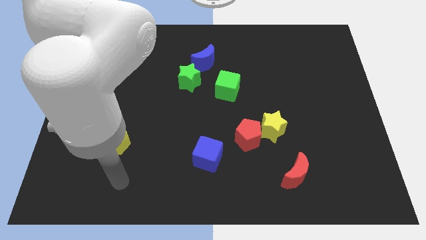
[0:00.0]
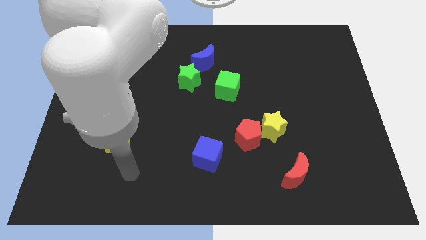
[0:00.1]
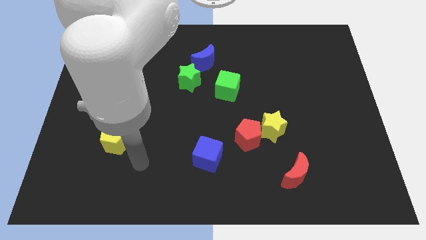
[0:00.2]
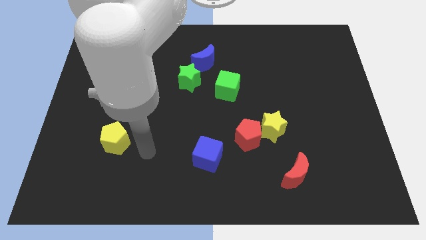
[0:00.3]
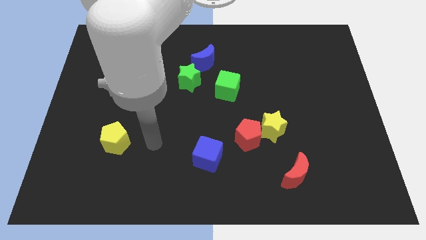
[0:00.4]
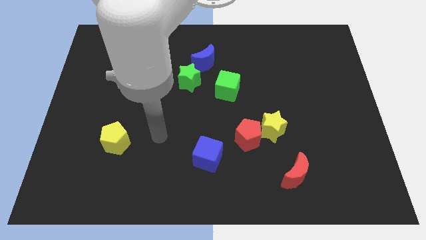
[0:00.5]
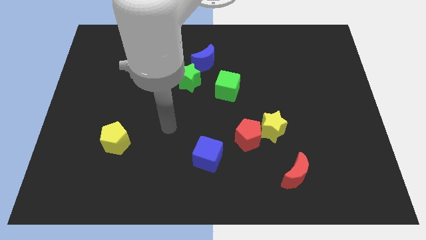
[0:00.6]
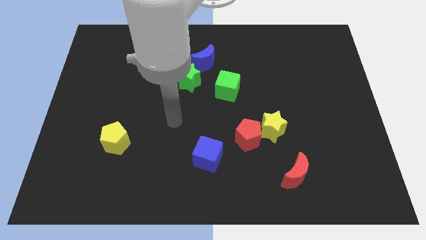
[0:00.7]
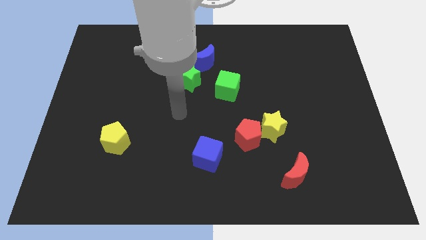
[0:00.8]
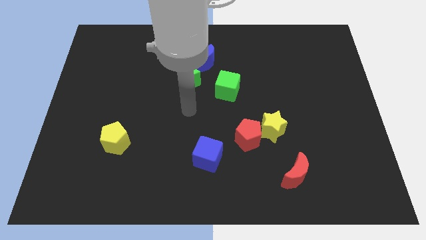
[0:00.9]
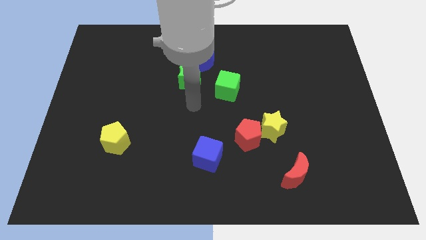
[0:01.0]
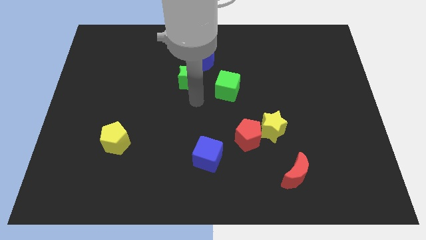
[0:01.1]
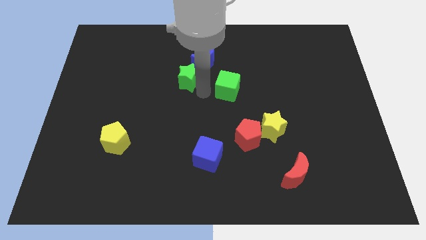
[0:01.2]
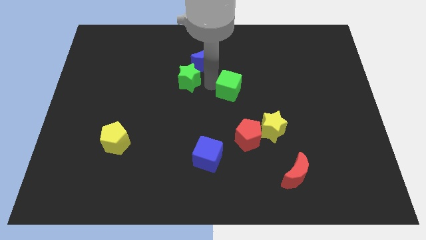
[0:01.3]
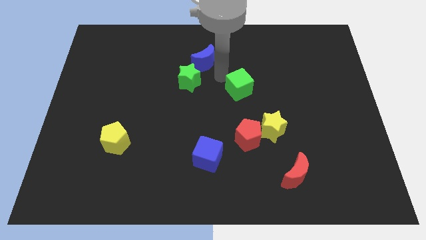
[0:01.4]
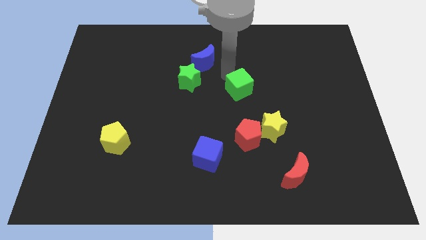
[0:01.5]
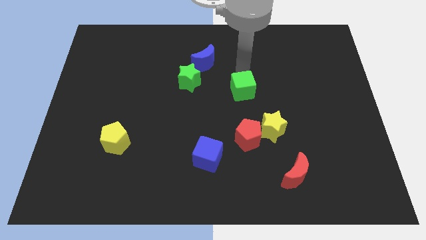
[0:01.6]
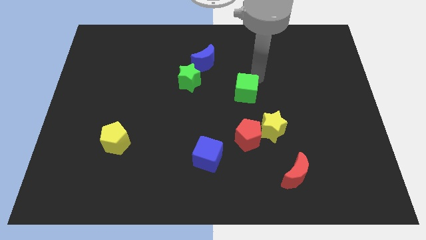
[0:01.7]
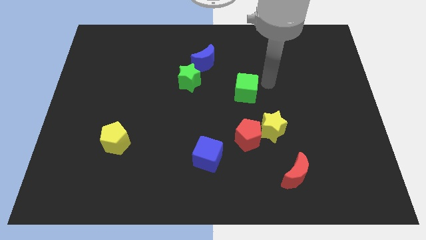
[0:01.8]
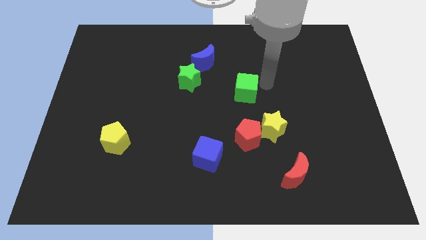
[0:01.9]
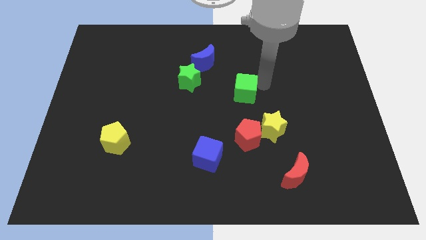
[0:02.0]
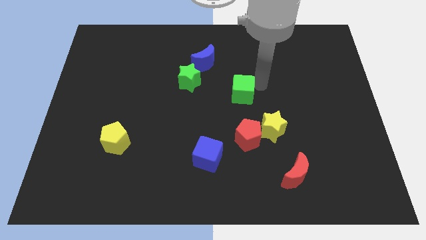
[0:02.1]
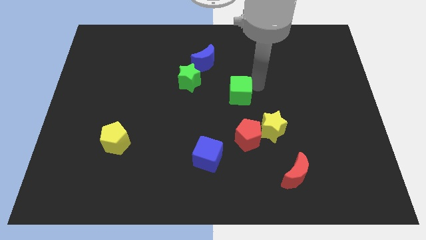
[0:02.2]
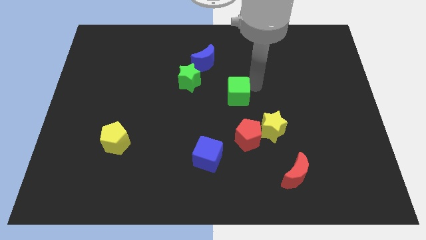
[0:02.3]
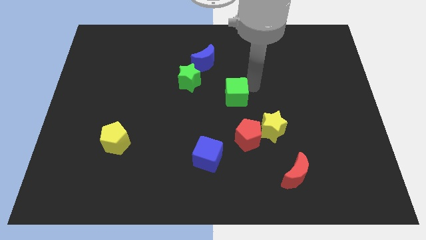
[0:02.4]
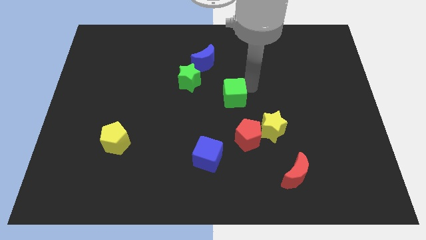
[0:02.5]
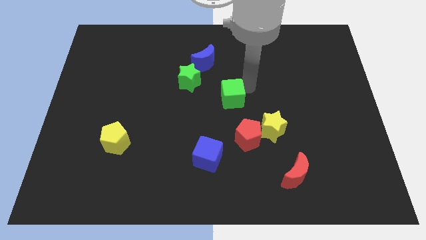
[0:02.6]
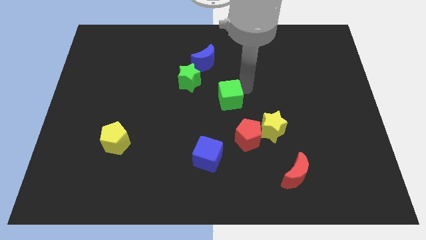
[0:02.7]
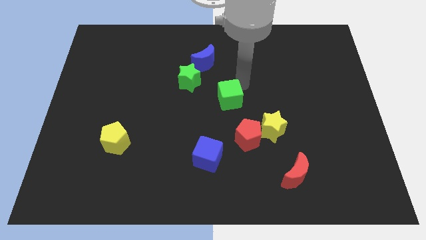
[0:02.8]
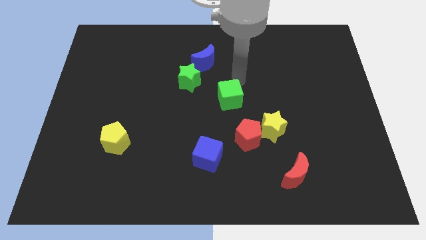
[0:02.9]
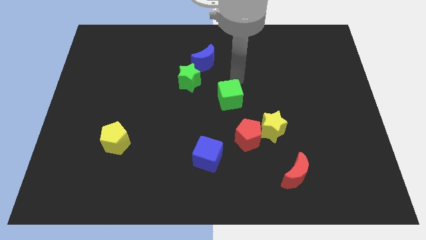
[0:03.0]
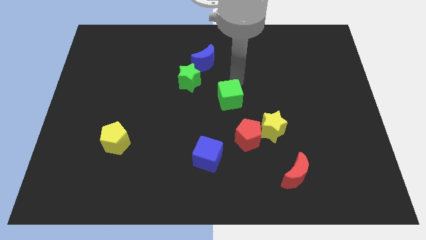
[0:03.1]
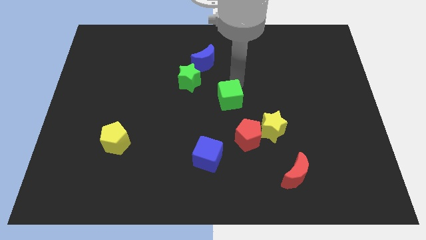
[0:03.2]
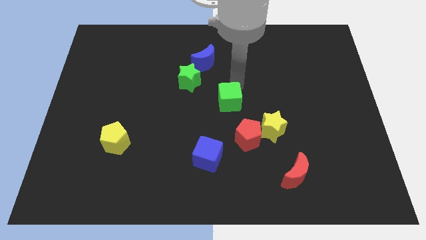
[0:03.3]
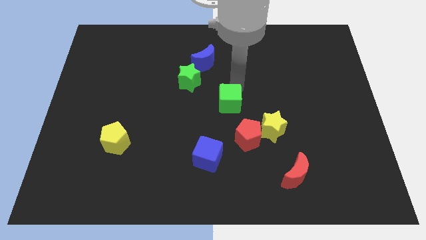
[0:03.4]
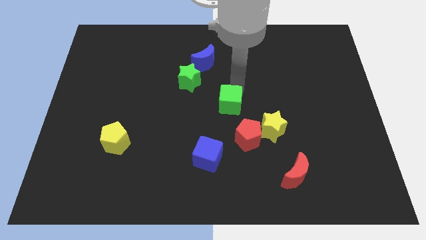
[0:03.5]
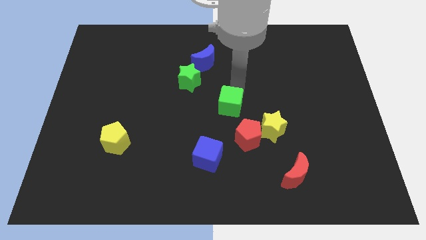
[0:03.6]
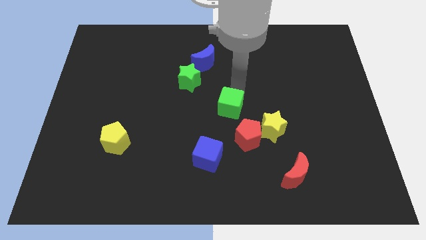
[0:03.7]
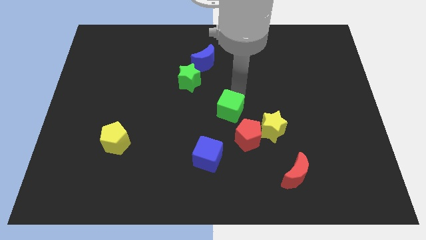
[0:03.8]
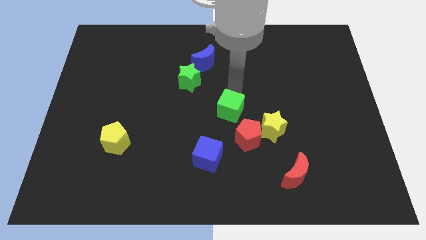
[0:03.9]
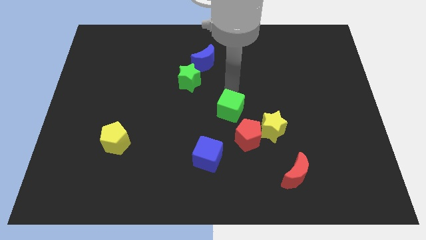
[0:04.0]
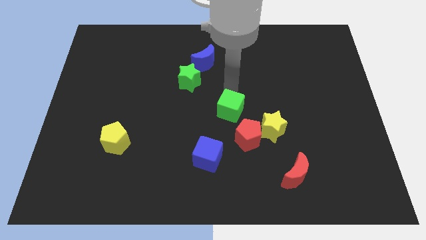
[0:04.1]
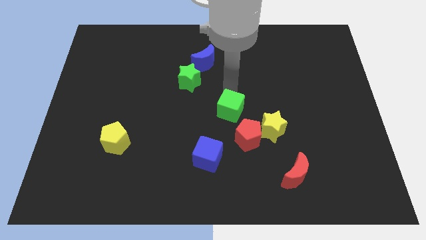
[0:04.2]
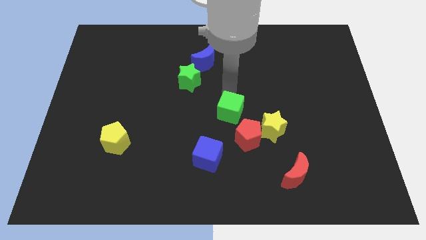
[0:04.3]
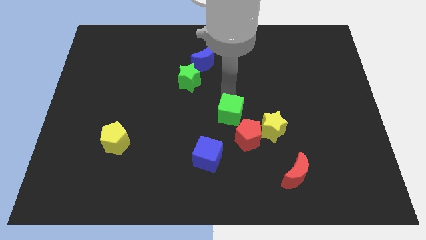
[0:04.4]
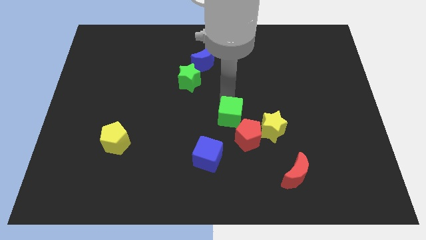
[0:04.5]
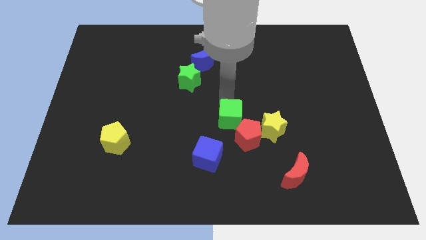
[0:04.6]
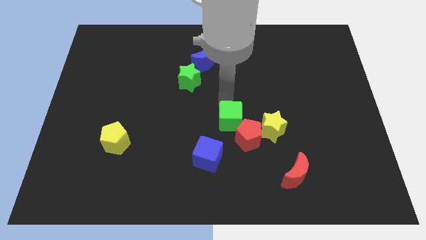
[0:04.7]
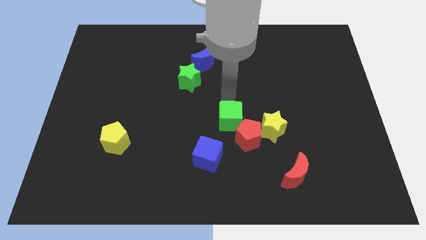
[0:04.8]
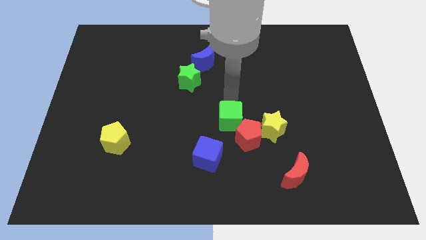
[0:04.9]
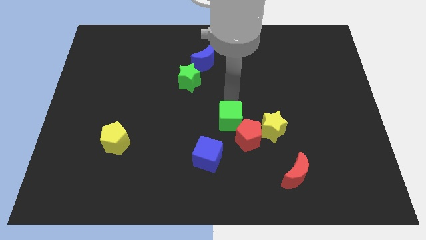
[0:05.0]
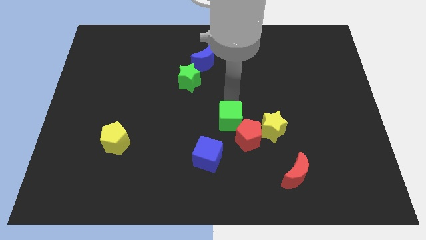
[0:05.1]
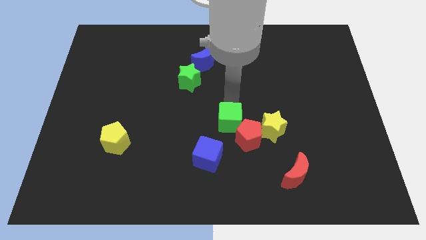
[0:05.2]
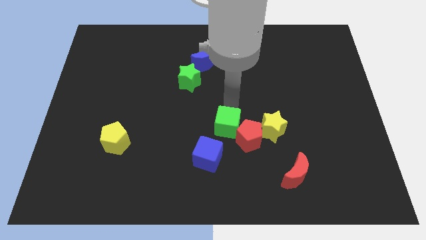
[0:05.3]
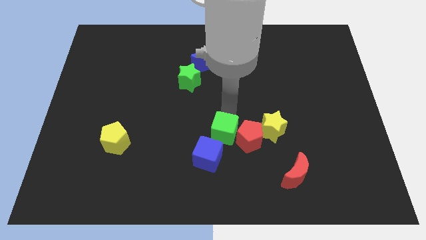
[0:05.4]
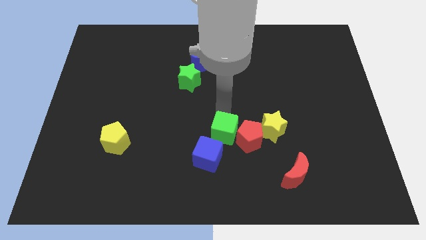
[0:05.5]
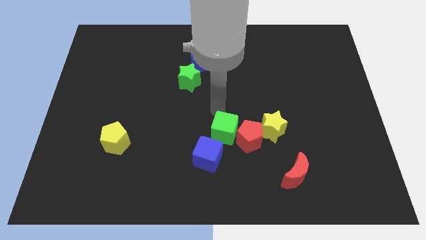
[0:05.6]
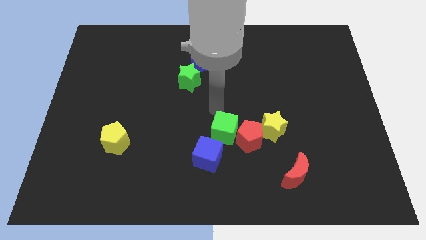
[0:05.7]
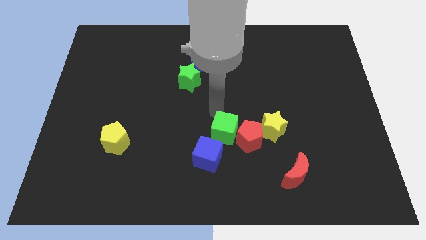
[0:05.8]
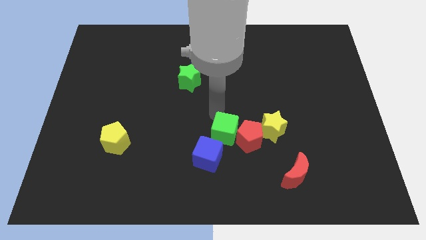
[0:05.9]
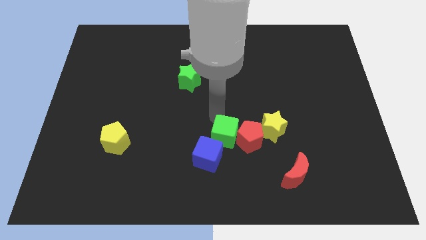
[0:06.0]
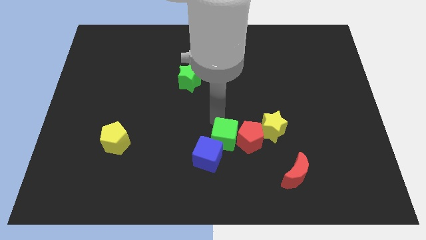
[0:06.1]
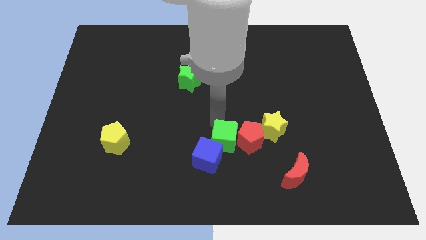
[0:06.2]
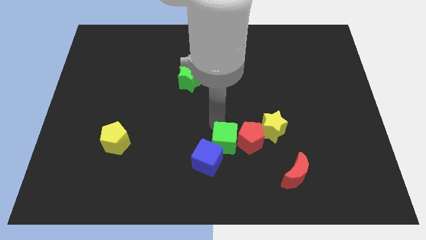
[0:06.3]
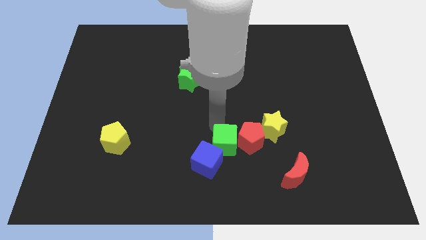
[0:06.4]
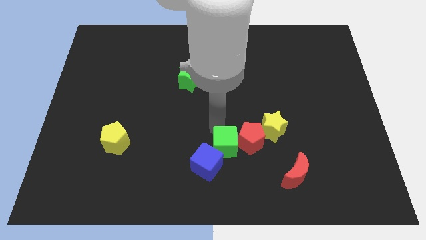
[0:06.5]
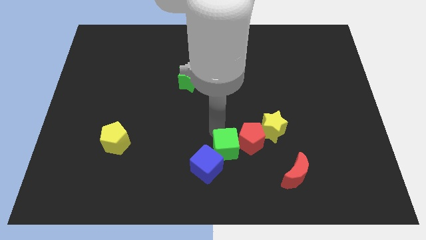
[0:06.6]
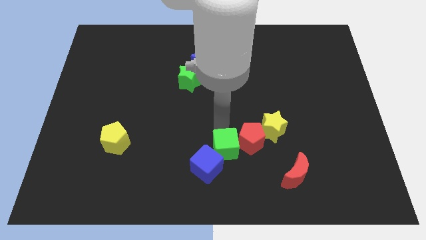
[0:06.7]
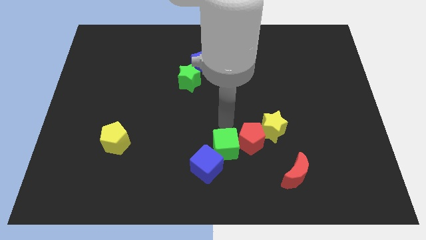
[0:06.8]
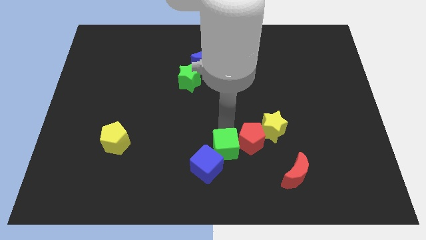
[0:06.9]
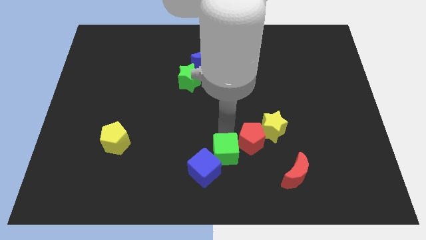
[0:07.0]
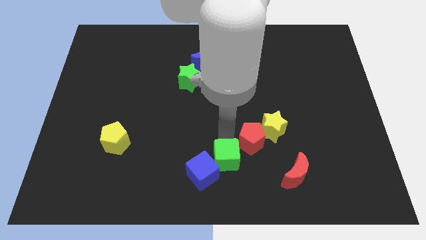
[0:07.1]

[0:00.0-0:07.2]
slide the green cube to the bottom
